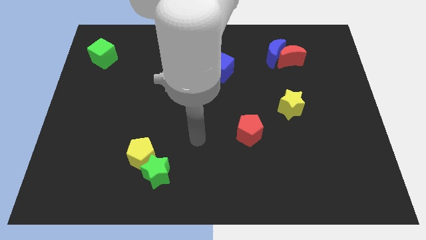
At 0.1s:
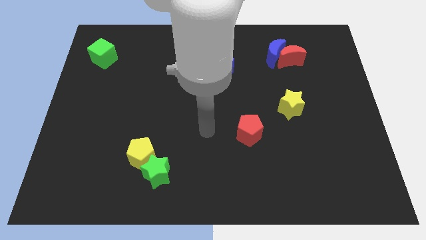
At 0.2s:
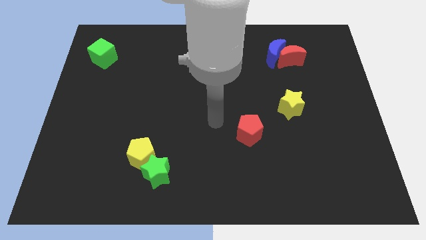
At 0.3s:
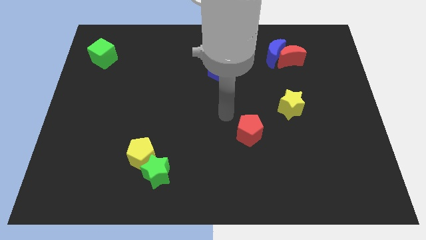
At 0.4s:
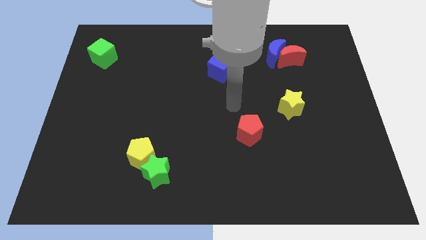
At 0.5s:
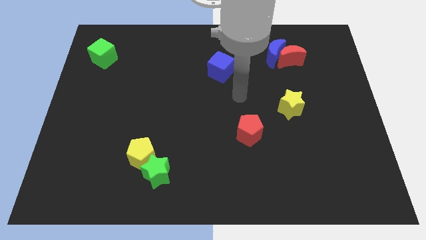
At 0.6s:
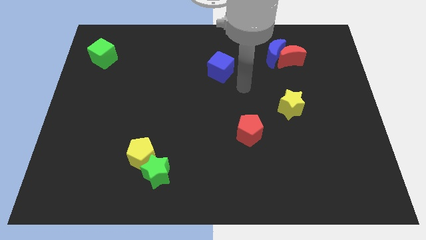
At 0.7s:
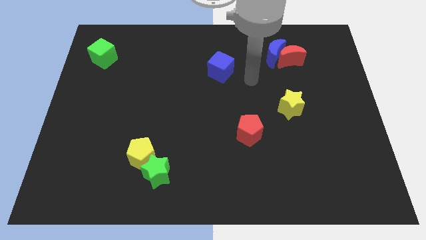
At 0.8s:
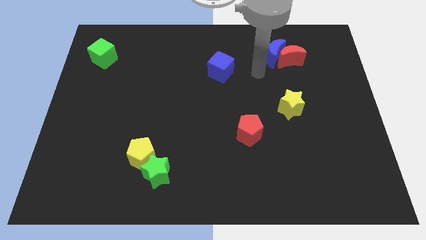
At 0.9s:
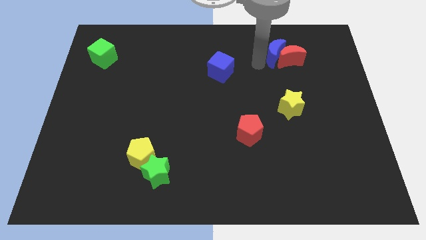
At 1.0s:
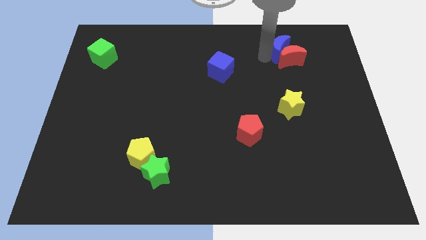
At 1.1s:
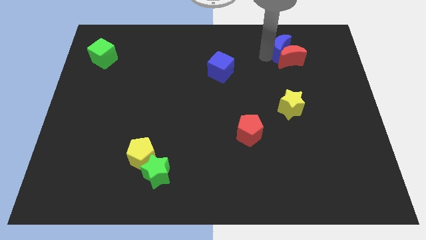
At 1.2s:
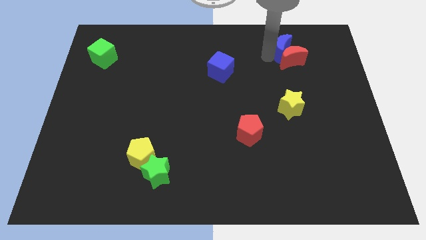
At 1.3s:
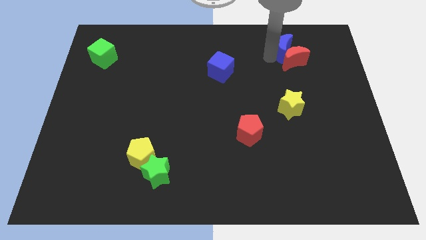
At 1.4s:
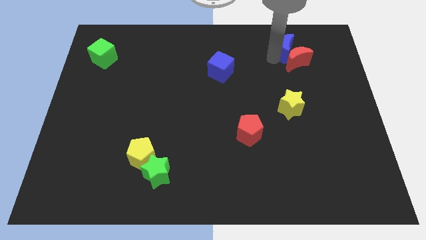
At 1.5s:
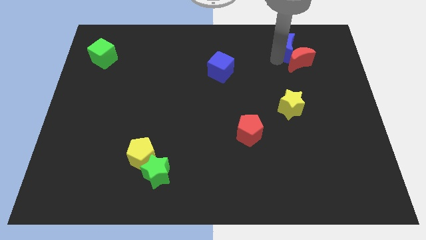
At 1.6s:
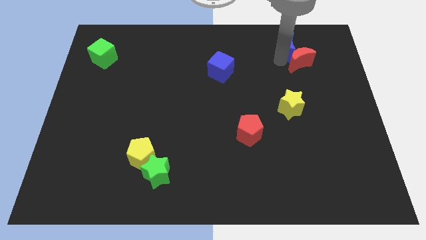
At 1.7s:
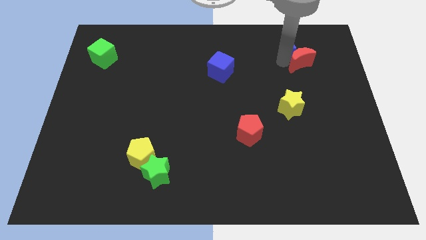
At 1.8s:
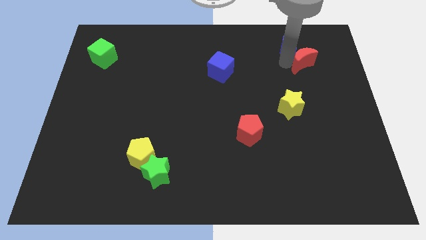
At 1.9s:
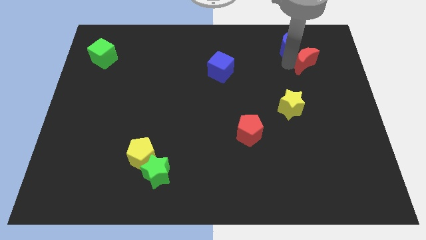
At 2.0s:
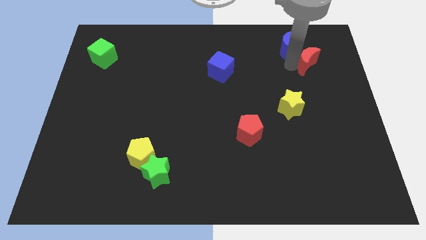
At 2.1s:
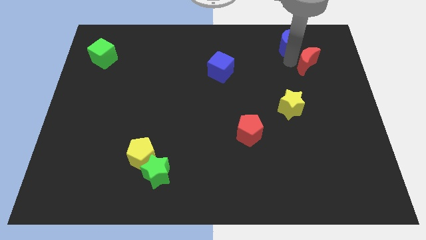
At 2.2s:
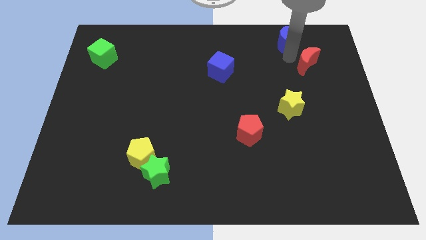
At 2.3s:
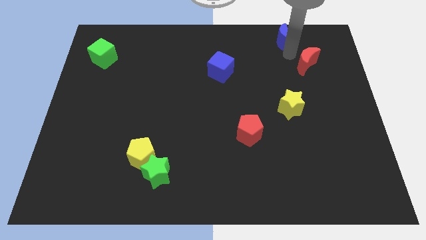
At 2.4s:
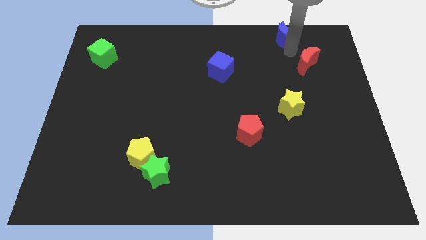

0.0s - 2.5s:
move the red moon away from the blue moon

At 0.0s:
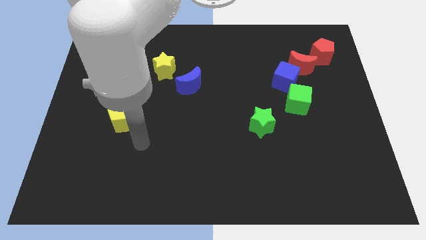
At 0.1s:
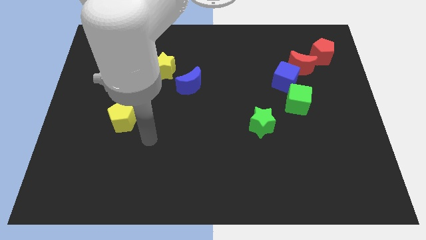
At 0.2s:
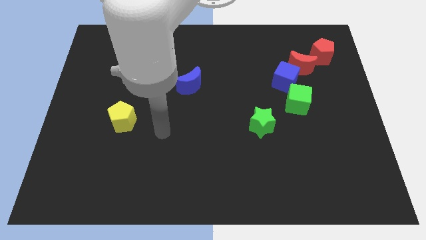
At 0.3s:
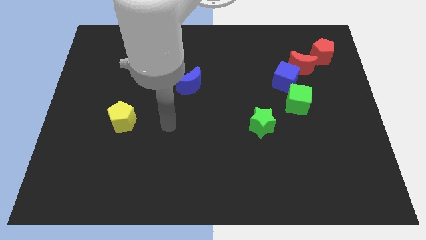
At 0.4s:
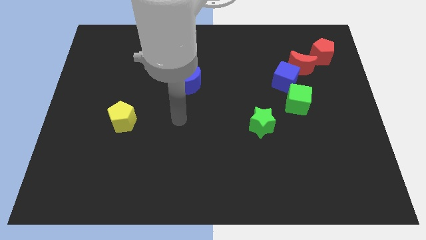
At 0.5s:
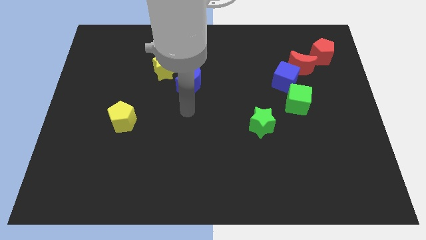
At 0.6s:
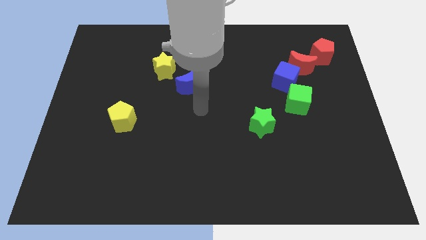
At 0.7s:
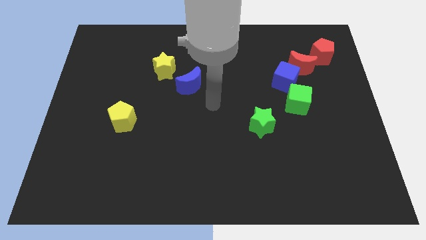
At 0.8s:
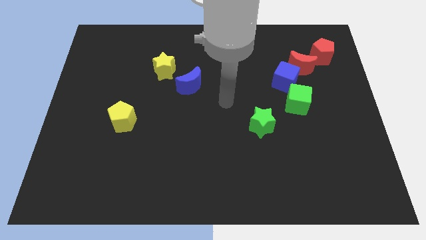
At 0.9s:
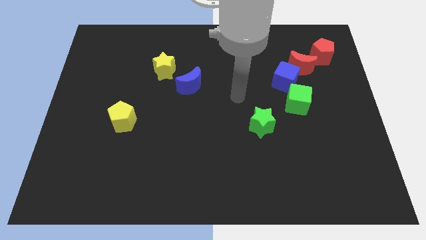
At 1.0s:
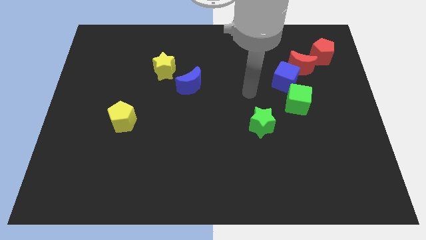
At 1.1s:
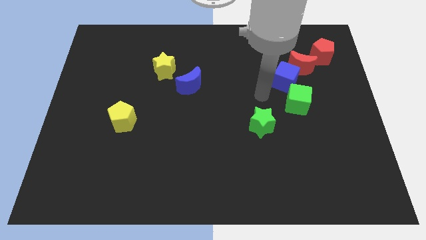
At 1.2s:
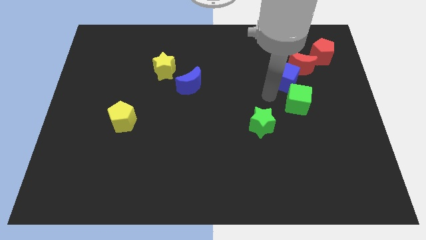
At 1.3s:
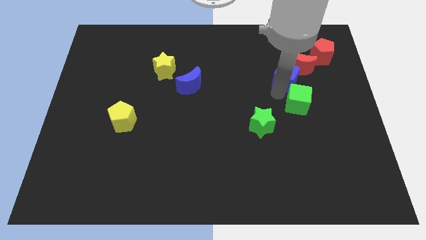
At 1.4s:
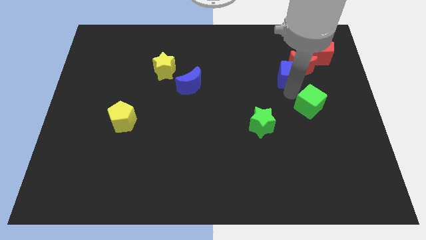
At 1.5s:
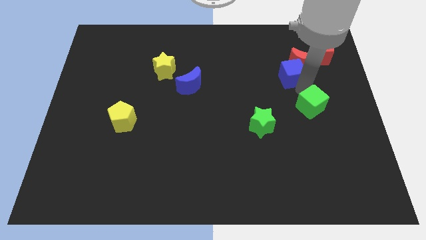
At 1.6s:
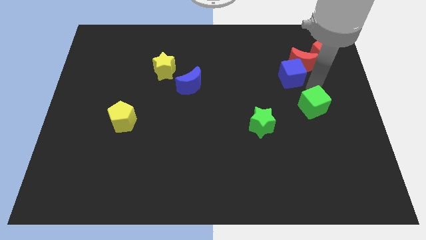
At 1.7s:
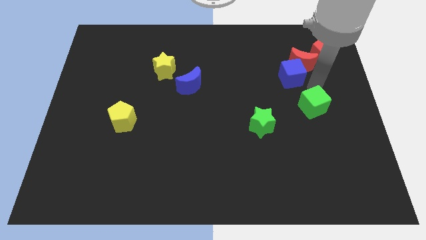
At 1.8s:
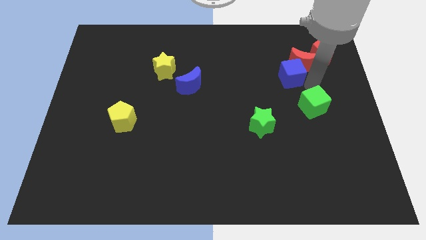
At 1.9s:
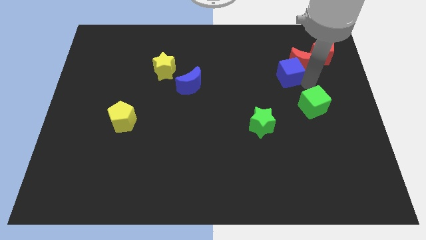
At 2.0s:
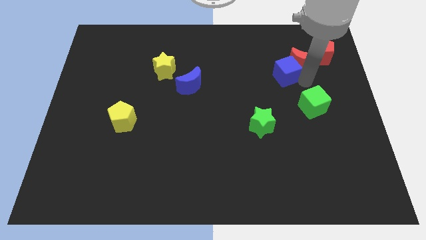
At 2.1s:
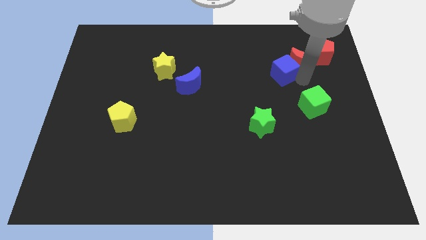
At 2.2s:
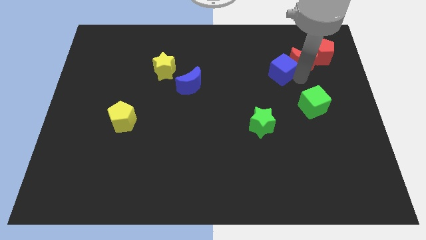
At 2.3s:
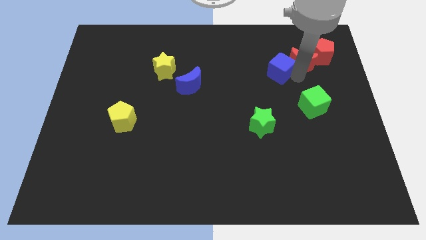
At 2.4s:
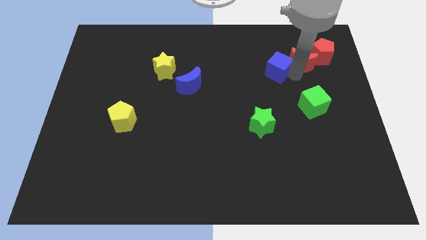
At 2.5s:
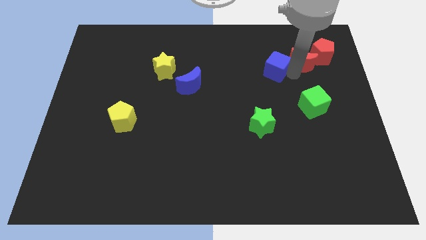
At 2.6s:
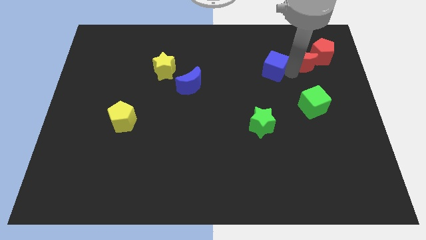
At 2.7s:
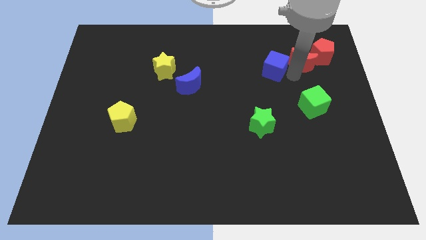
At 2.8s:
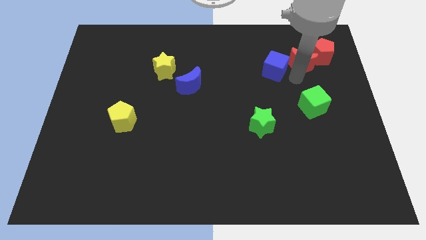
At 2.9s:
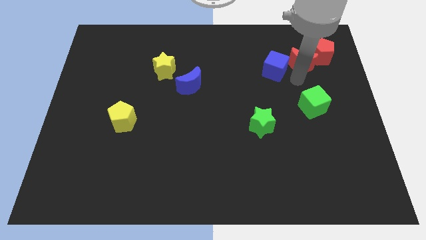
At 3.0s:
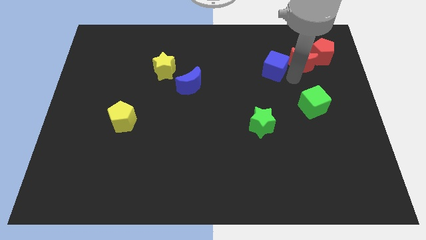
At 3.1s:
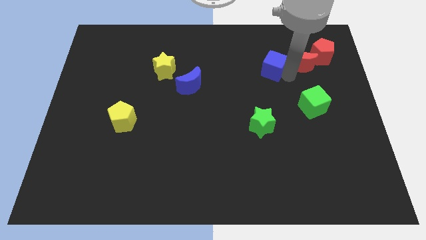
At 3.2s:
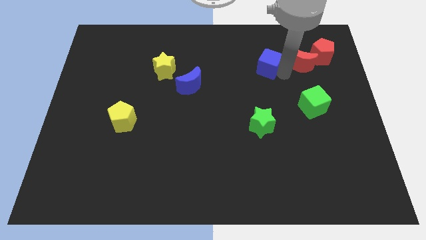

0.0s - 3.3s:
separate the blue cube from the red moon and green cube

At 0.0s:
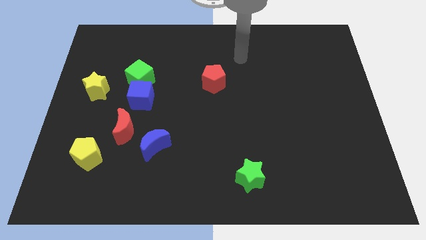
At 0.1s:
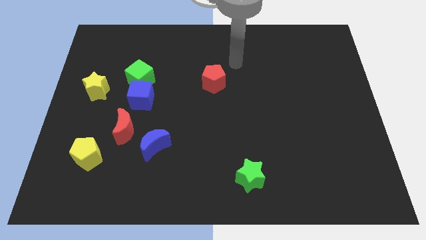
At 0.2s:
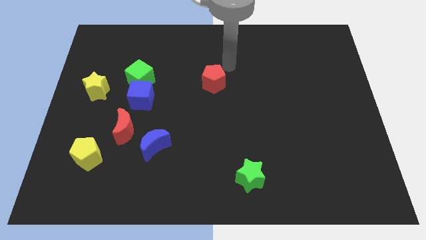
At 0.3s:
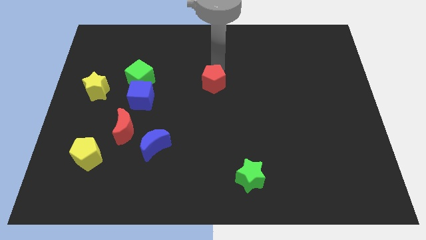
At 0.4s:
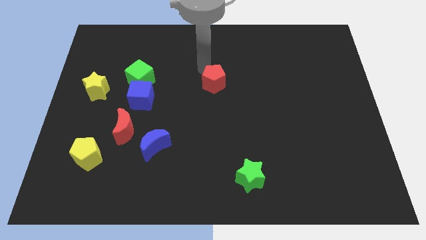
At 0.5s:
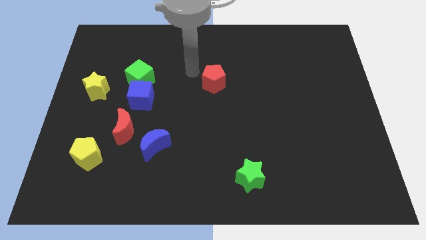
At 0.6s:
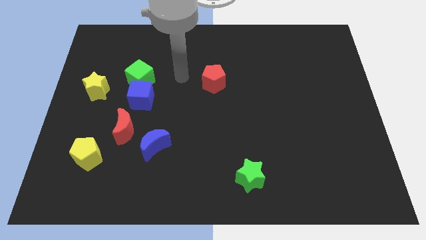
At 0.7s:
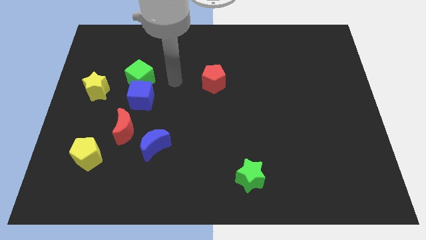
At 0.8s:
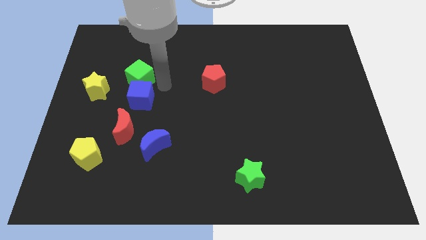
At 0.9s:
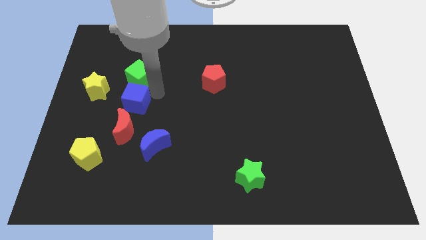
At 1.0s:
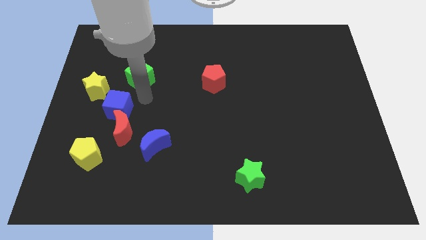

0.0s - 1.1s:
separate the green cube from the blue cube

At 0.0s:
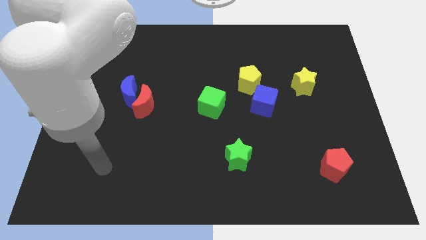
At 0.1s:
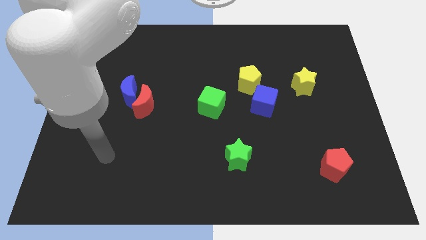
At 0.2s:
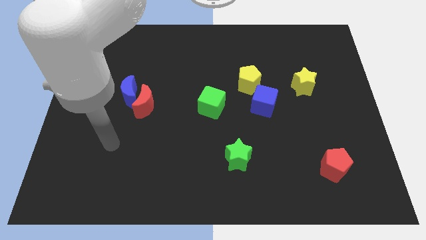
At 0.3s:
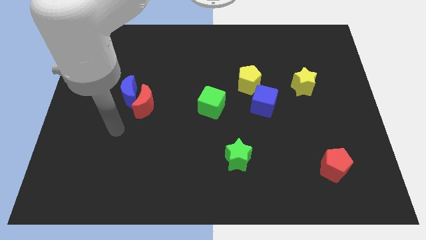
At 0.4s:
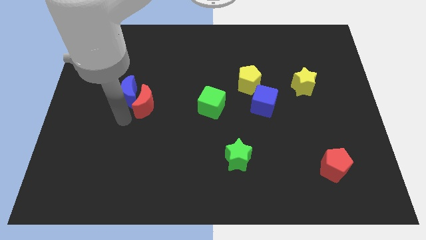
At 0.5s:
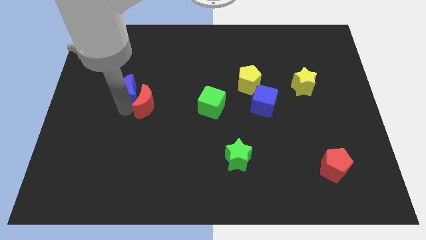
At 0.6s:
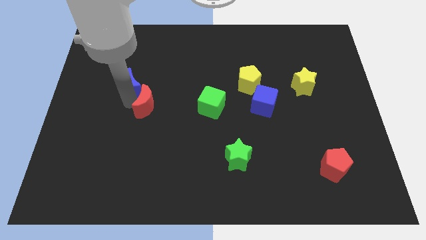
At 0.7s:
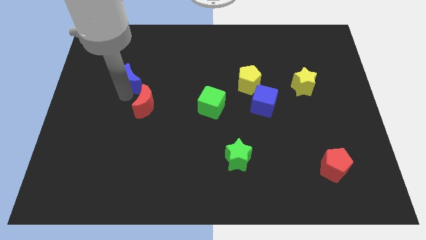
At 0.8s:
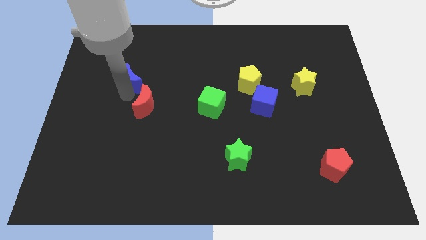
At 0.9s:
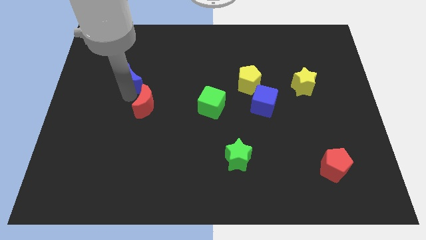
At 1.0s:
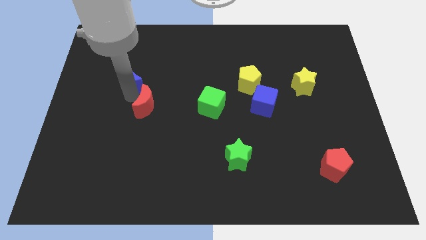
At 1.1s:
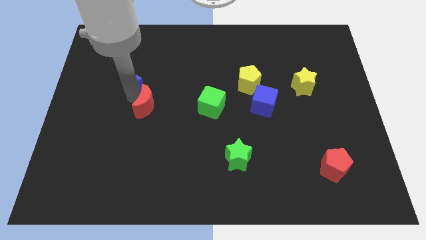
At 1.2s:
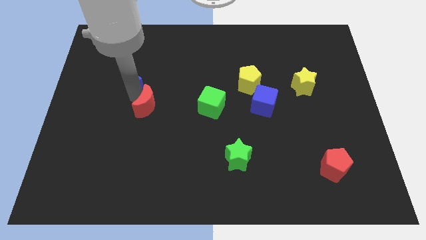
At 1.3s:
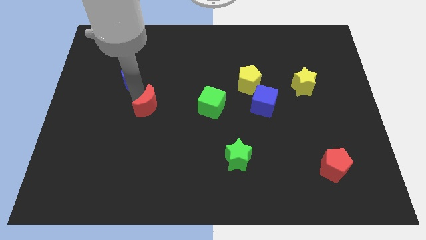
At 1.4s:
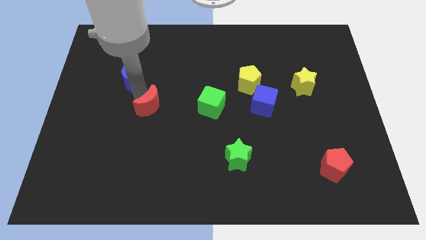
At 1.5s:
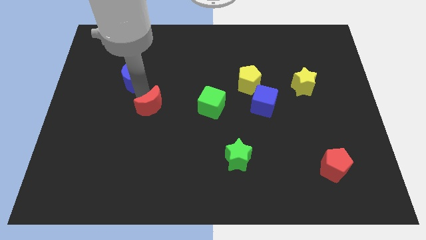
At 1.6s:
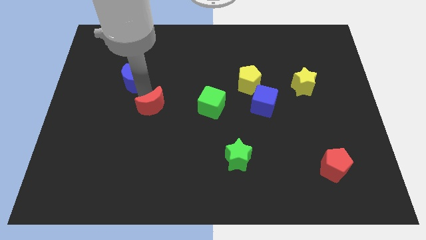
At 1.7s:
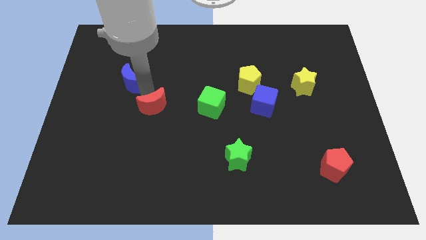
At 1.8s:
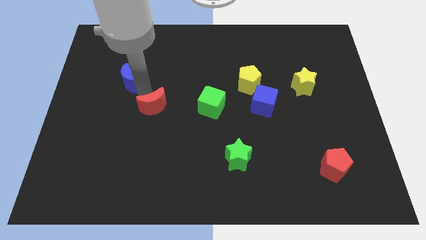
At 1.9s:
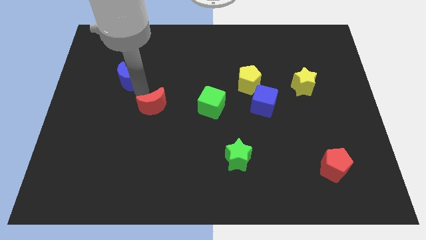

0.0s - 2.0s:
pull the red moon apart from the blue moon

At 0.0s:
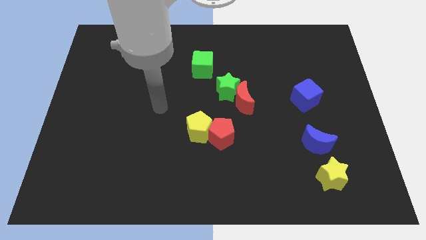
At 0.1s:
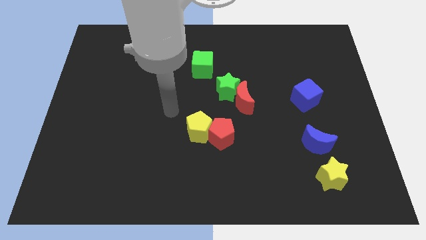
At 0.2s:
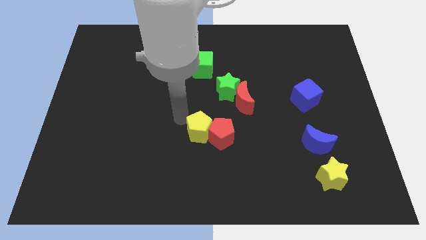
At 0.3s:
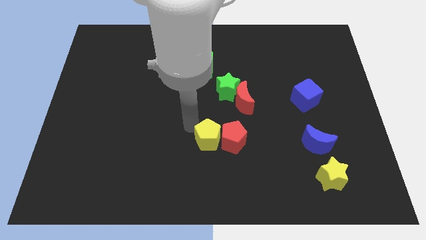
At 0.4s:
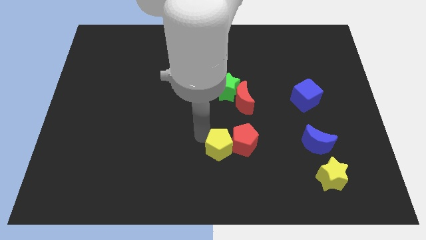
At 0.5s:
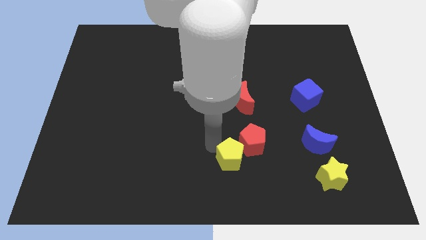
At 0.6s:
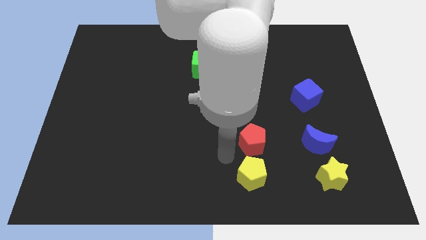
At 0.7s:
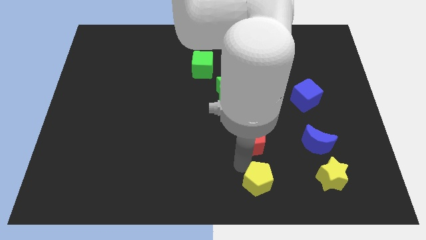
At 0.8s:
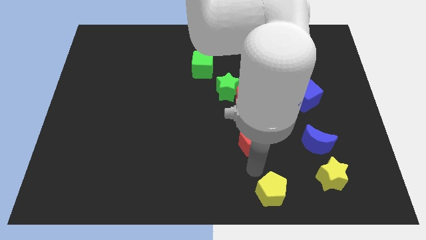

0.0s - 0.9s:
move the red pentagon away from the yellow pentagon
